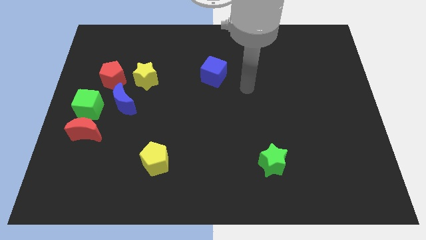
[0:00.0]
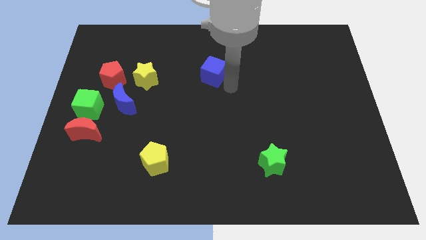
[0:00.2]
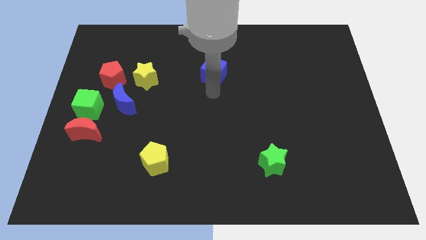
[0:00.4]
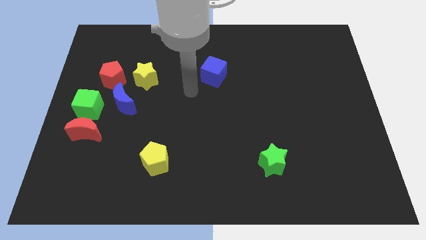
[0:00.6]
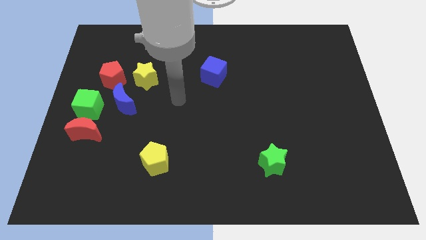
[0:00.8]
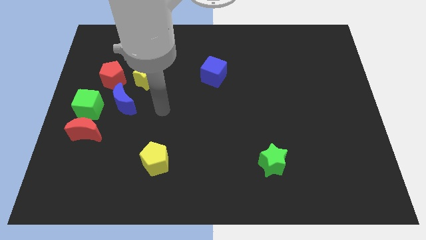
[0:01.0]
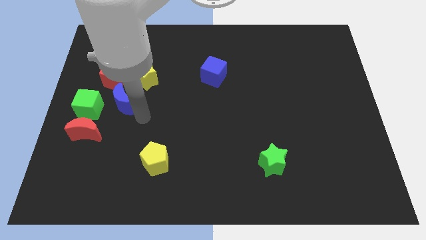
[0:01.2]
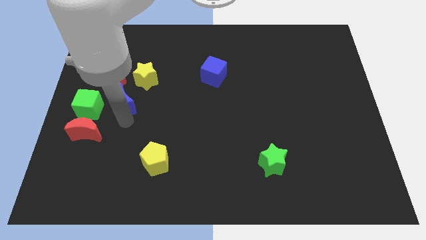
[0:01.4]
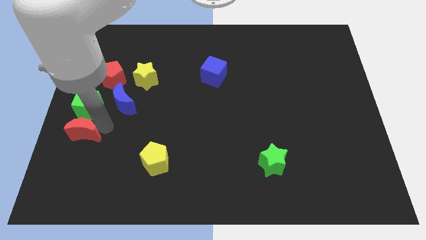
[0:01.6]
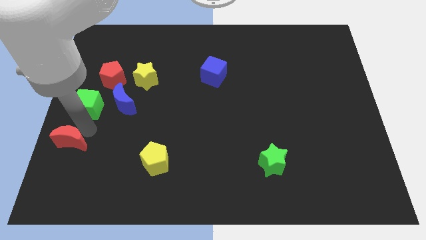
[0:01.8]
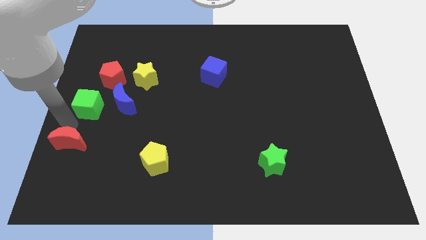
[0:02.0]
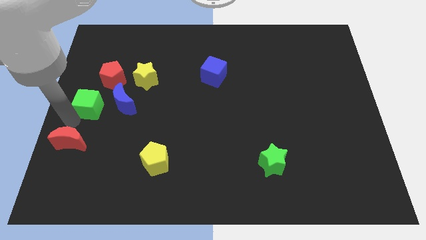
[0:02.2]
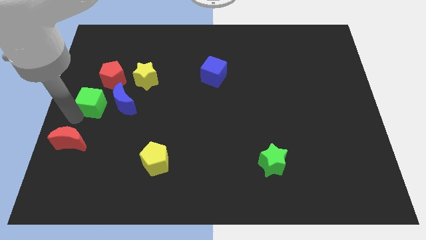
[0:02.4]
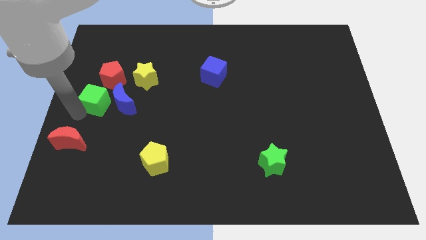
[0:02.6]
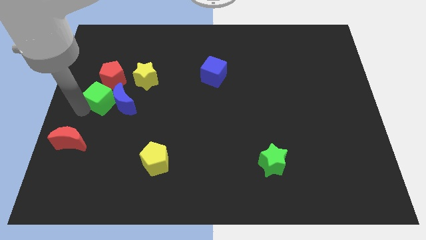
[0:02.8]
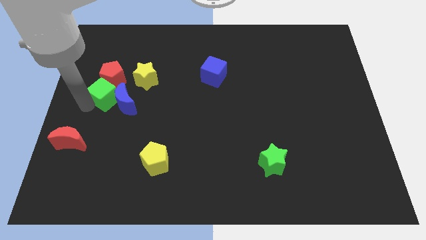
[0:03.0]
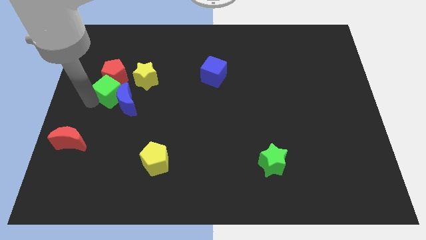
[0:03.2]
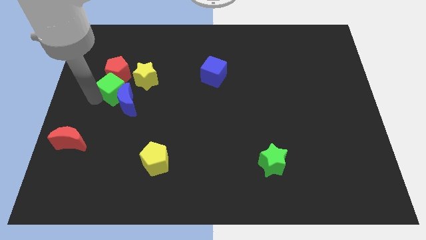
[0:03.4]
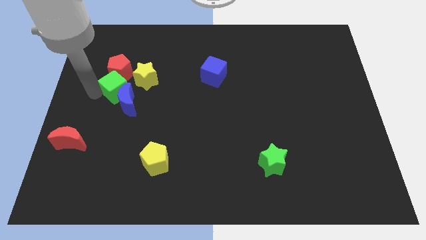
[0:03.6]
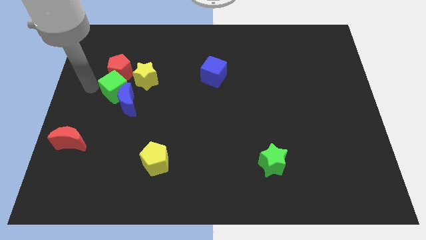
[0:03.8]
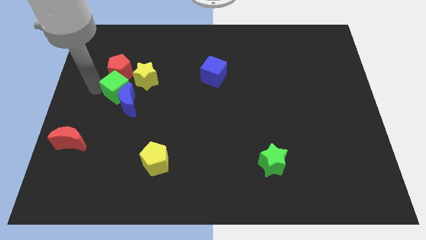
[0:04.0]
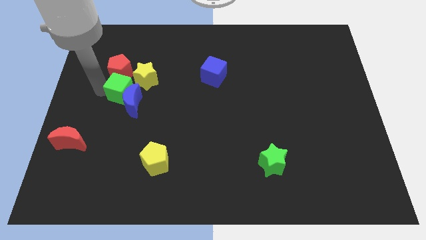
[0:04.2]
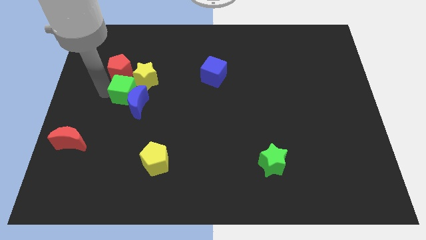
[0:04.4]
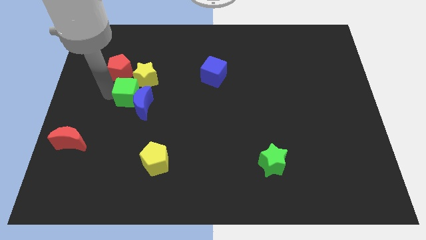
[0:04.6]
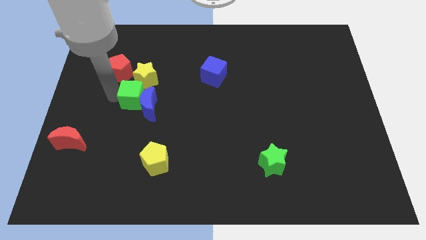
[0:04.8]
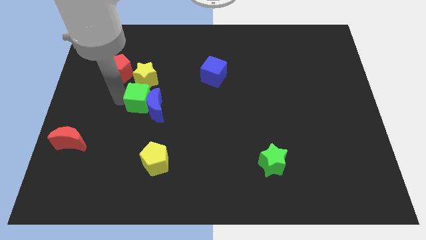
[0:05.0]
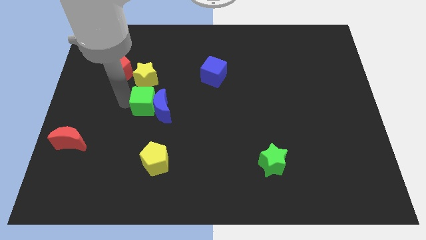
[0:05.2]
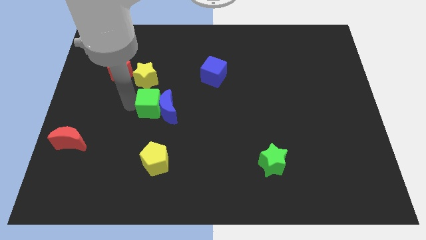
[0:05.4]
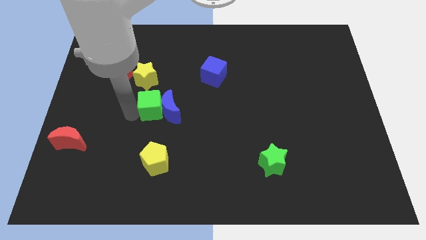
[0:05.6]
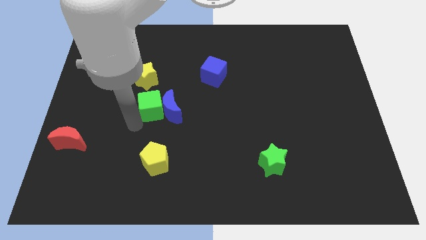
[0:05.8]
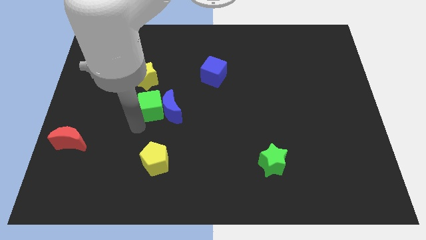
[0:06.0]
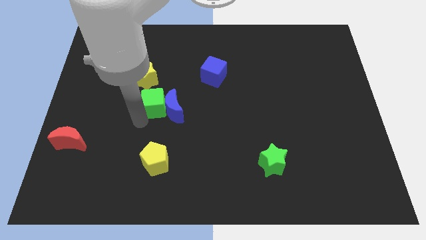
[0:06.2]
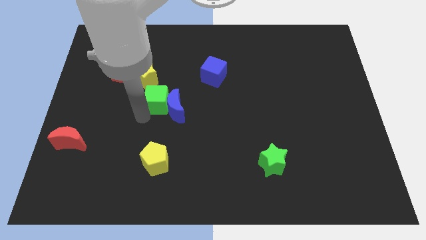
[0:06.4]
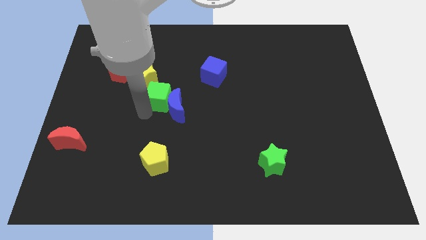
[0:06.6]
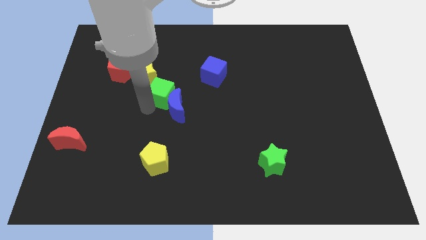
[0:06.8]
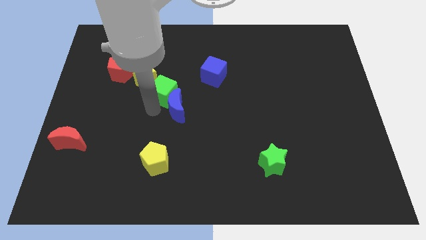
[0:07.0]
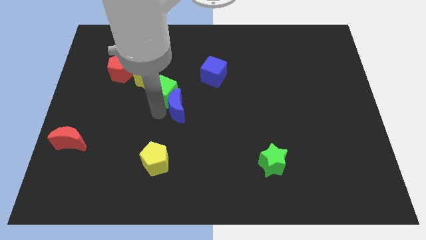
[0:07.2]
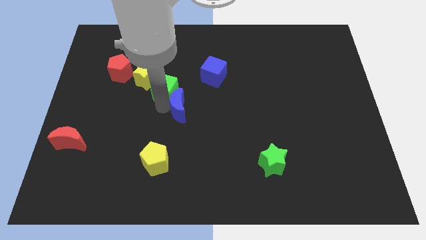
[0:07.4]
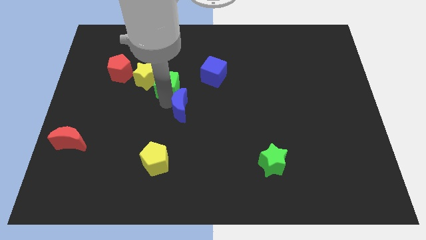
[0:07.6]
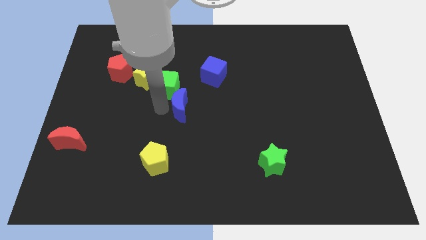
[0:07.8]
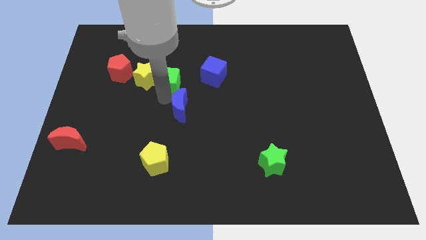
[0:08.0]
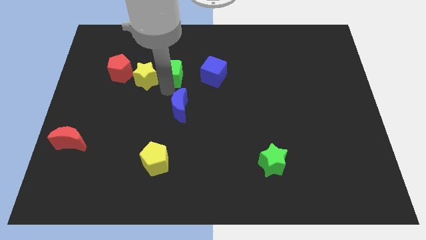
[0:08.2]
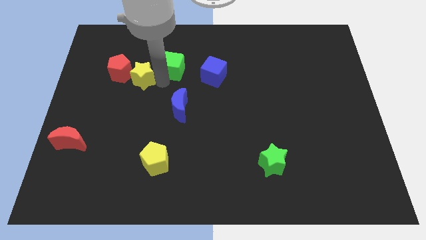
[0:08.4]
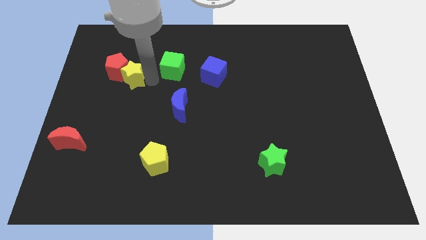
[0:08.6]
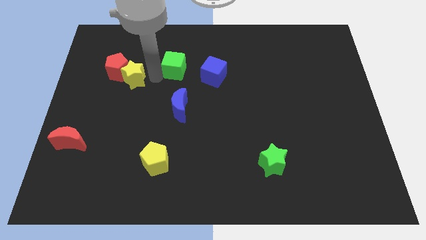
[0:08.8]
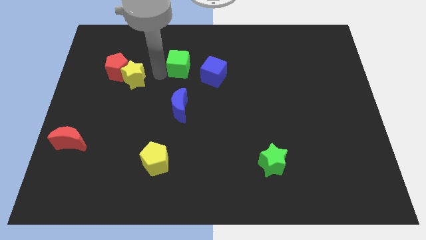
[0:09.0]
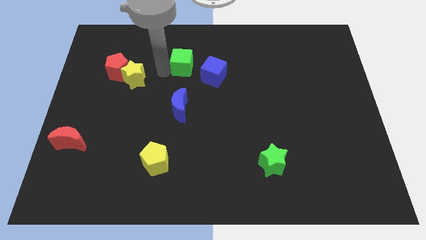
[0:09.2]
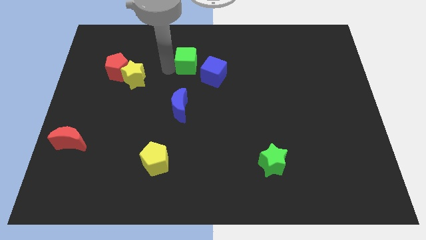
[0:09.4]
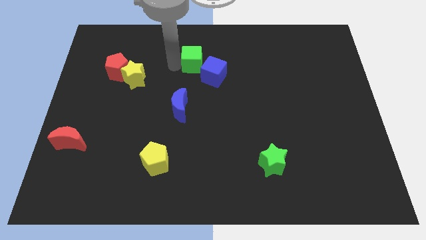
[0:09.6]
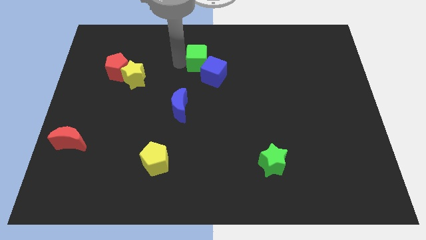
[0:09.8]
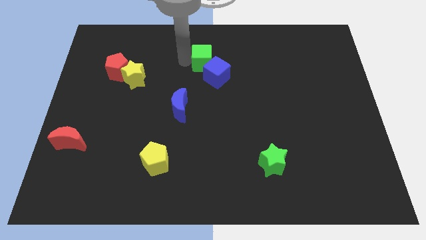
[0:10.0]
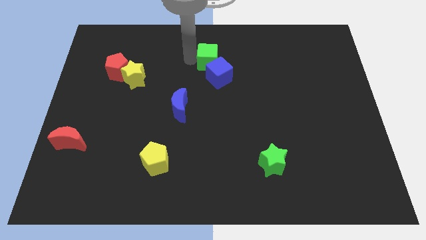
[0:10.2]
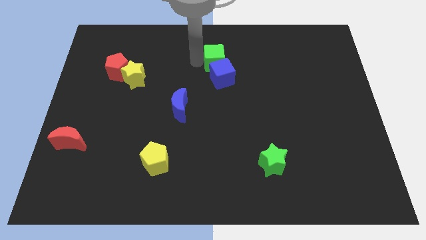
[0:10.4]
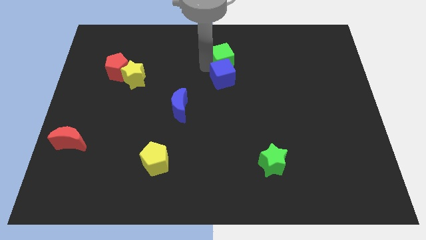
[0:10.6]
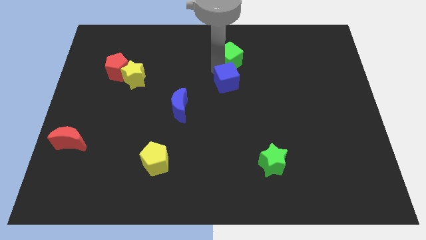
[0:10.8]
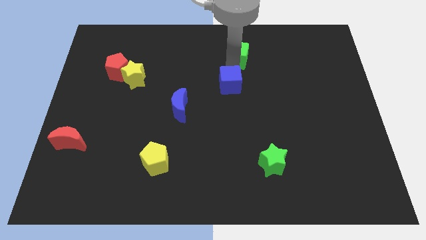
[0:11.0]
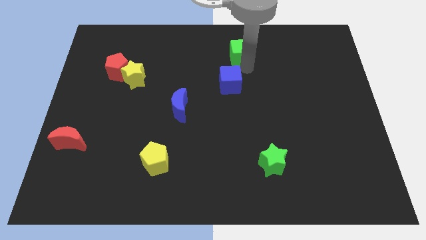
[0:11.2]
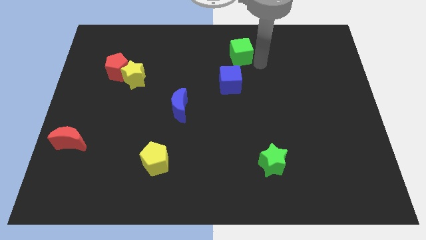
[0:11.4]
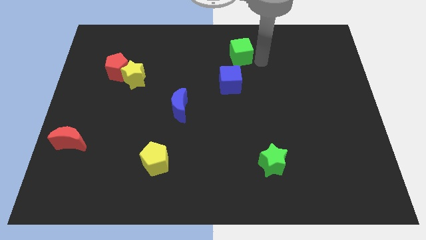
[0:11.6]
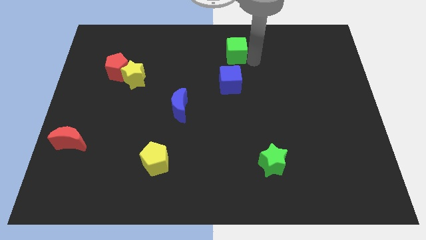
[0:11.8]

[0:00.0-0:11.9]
put the green cube to the towards your base
